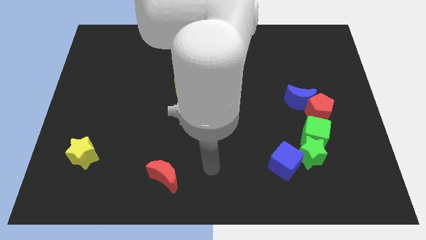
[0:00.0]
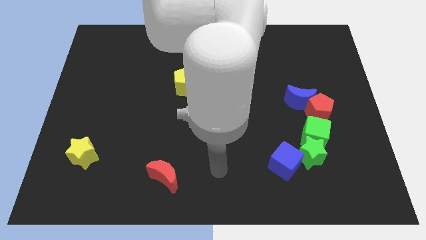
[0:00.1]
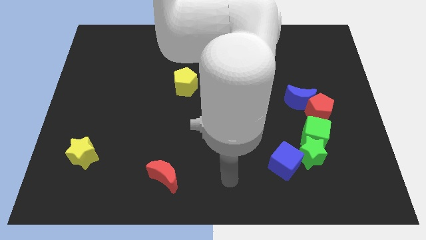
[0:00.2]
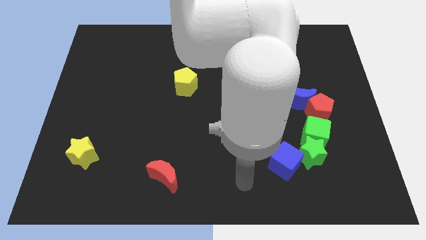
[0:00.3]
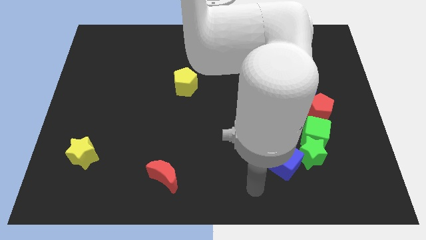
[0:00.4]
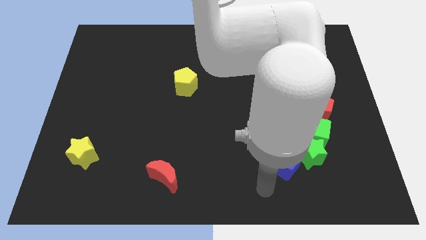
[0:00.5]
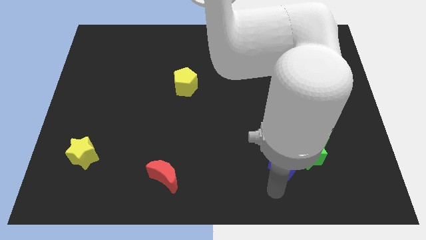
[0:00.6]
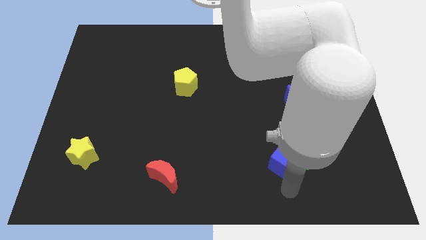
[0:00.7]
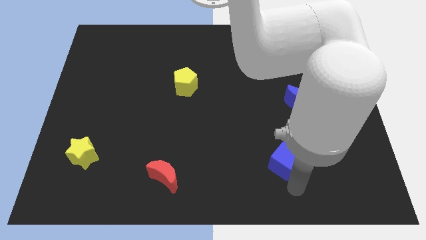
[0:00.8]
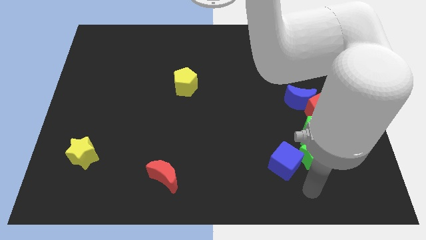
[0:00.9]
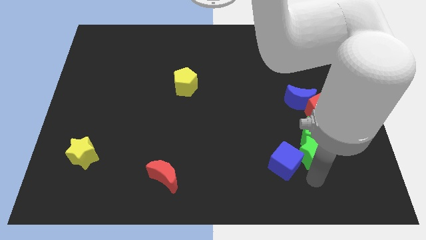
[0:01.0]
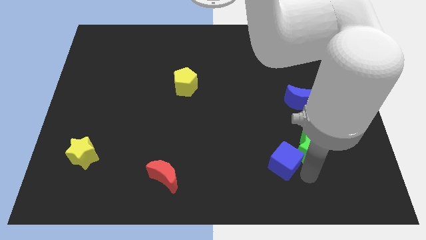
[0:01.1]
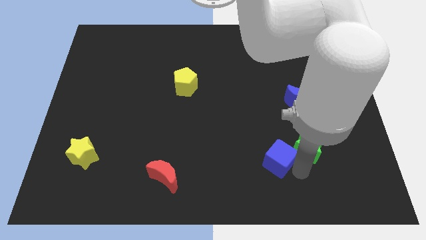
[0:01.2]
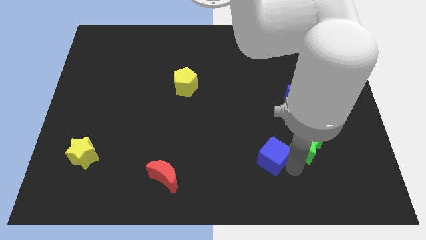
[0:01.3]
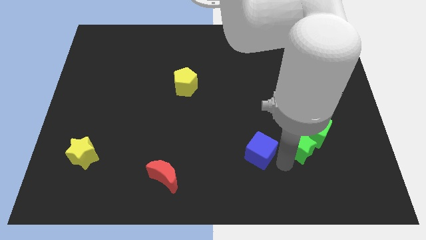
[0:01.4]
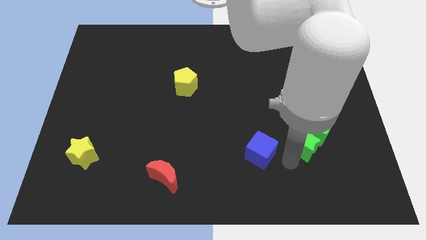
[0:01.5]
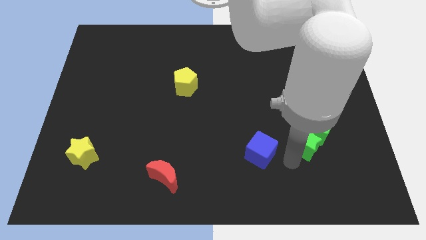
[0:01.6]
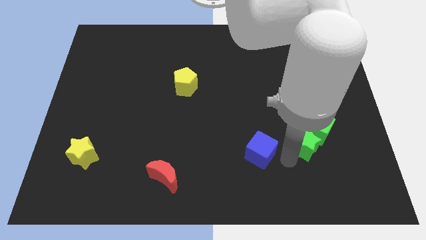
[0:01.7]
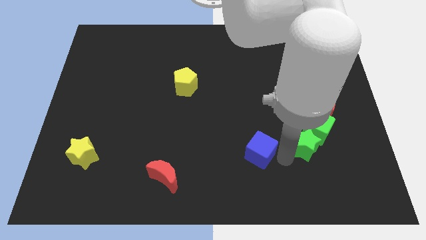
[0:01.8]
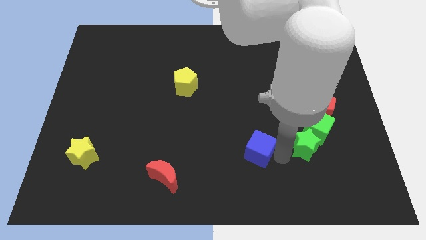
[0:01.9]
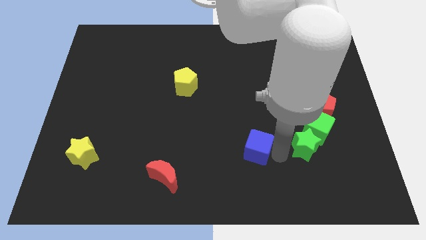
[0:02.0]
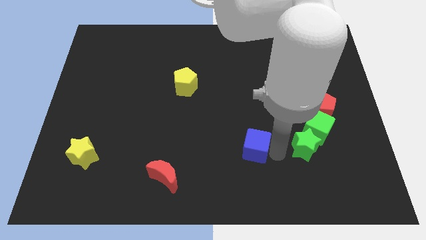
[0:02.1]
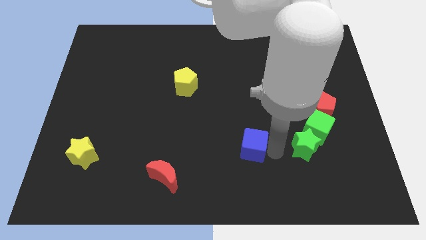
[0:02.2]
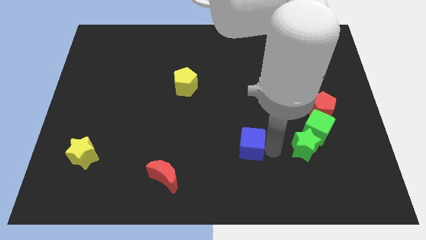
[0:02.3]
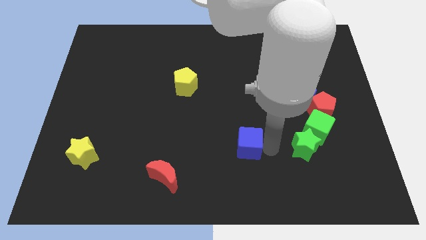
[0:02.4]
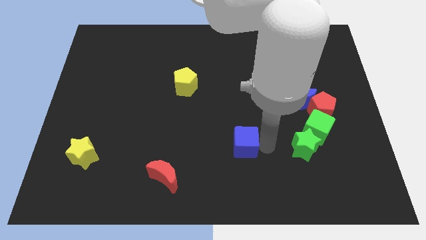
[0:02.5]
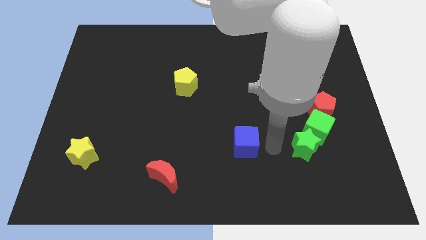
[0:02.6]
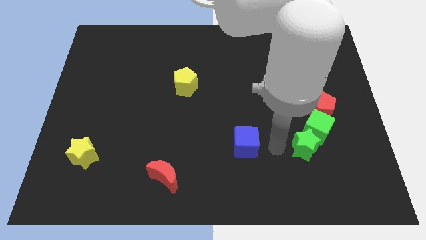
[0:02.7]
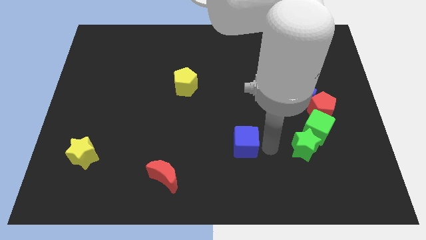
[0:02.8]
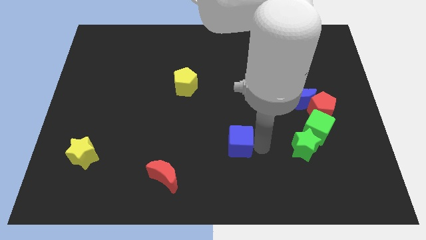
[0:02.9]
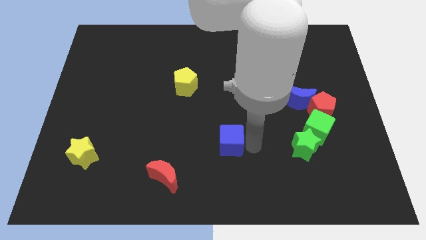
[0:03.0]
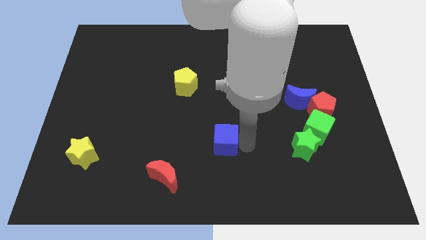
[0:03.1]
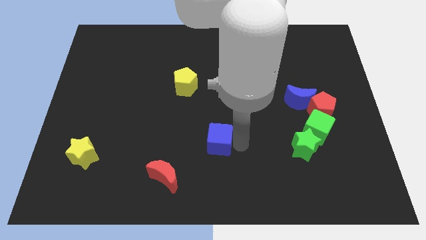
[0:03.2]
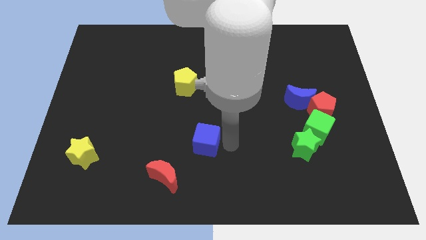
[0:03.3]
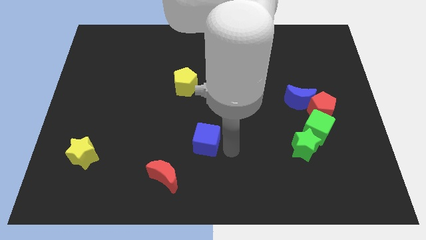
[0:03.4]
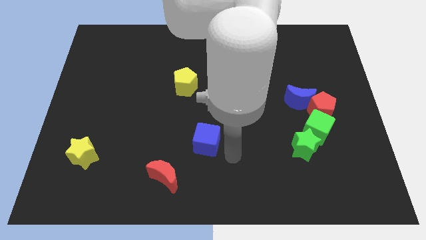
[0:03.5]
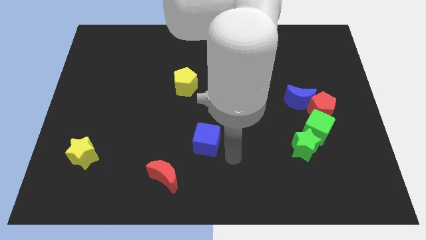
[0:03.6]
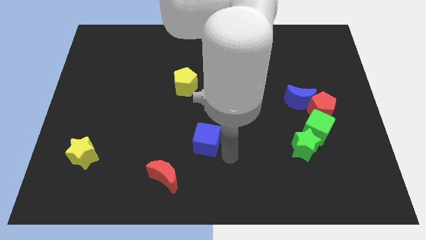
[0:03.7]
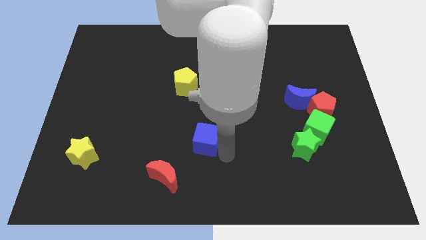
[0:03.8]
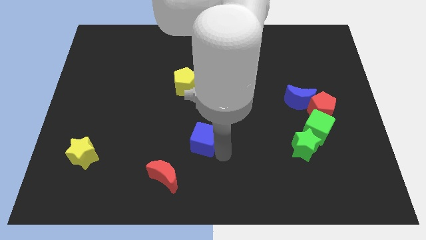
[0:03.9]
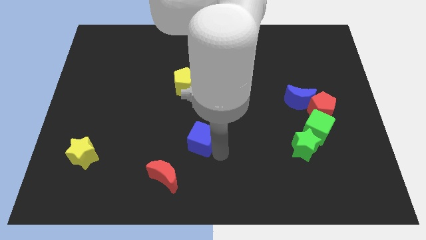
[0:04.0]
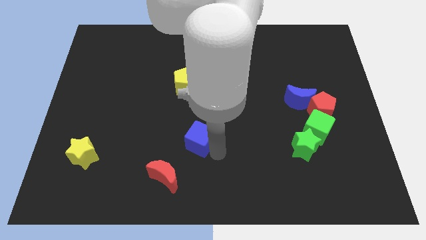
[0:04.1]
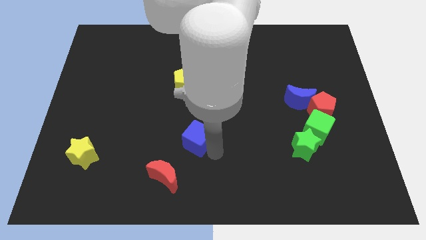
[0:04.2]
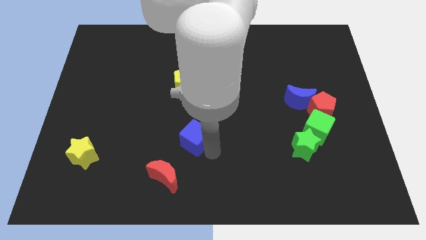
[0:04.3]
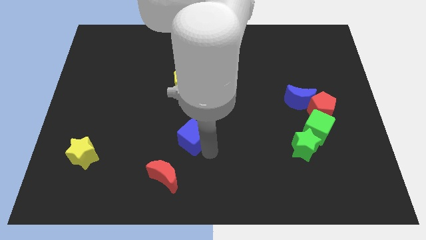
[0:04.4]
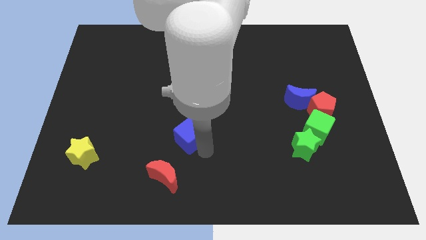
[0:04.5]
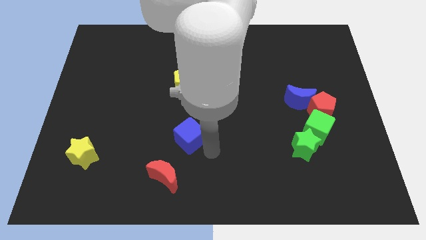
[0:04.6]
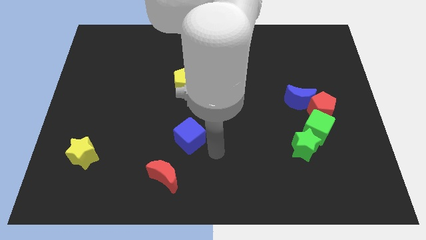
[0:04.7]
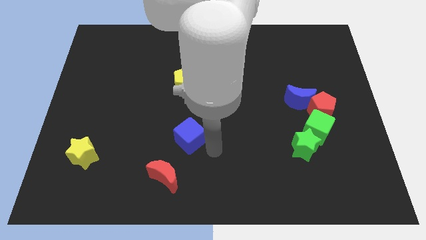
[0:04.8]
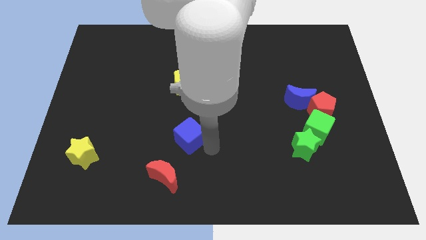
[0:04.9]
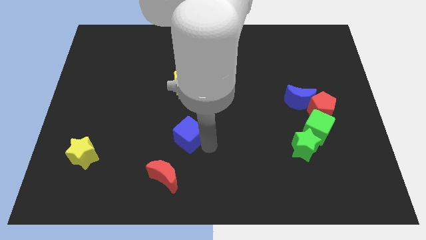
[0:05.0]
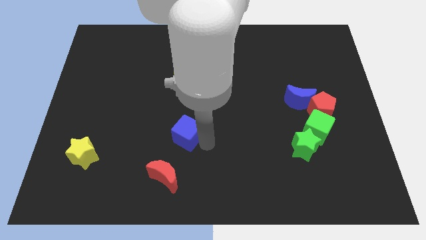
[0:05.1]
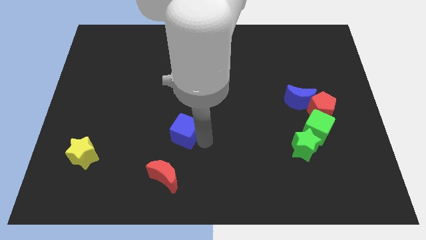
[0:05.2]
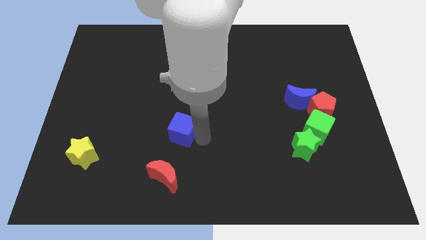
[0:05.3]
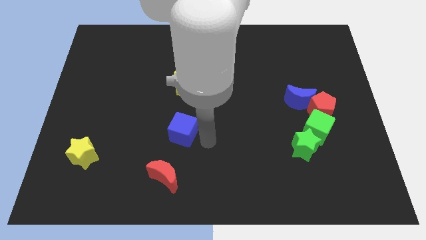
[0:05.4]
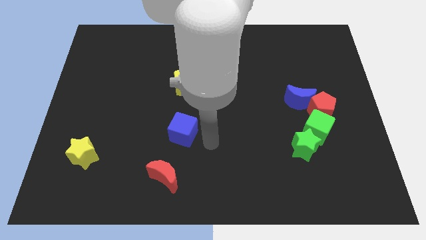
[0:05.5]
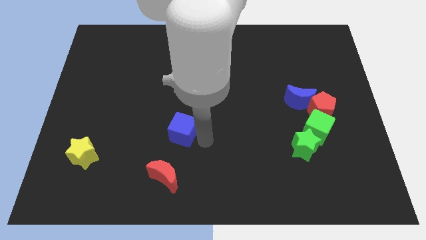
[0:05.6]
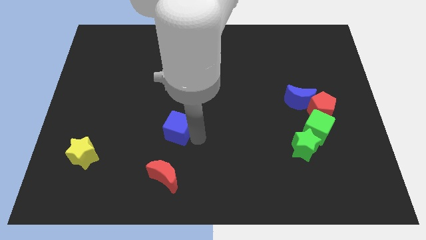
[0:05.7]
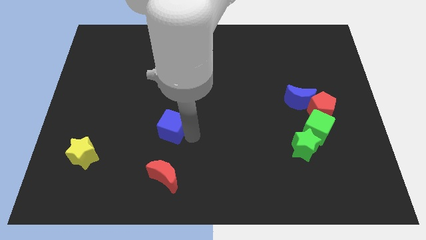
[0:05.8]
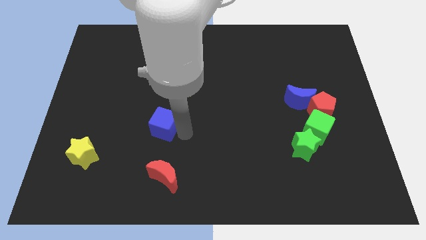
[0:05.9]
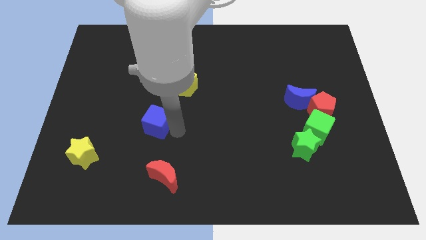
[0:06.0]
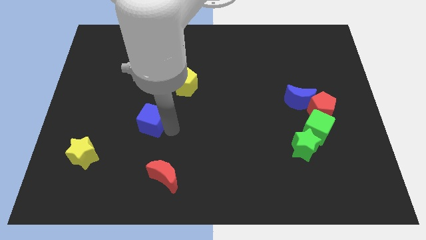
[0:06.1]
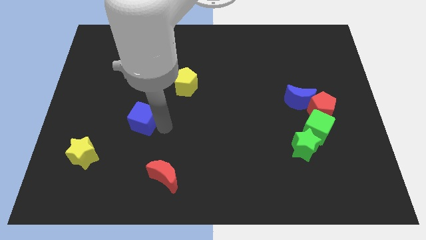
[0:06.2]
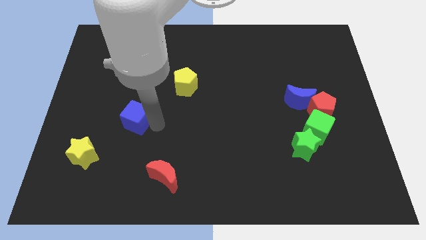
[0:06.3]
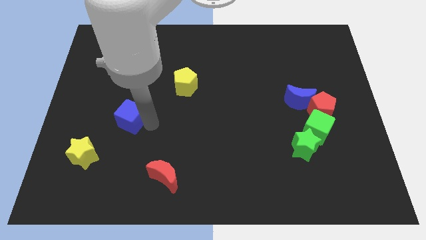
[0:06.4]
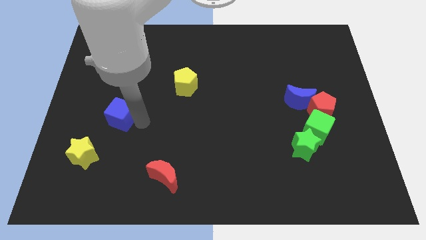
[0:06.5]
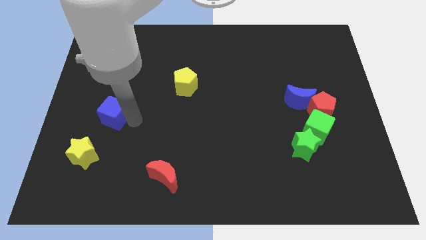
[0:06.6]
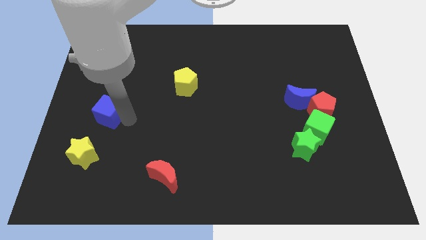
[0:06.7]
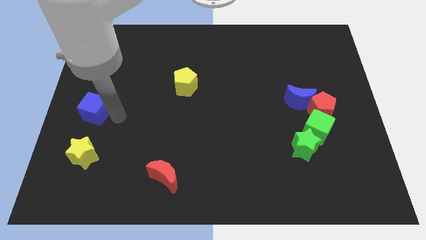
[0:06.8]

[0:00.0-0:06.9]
move the blue cube to the left side of the board
